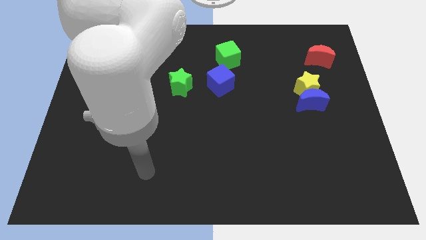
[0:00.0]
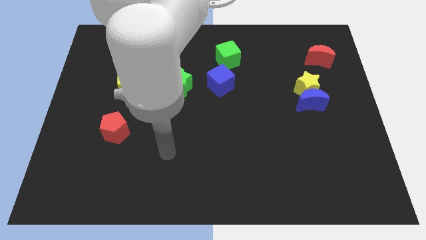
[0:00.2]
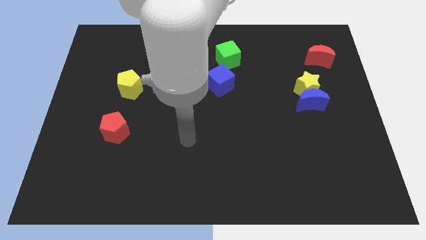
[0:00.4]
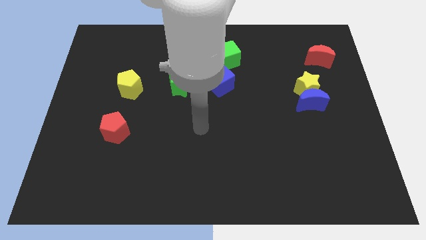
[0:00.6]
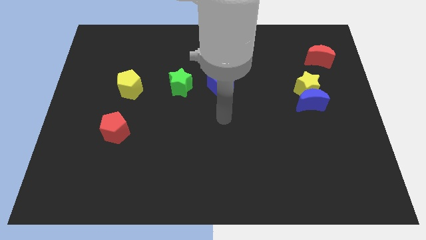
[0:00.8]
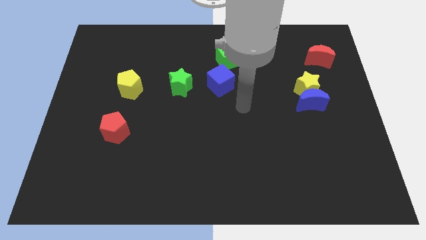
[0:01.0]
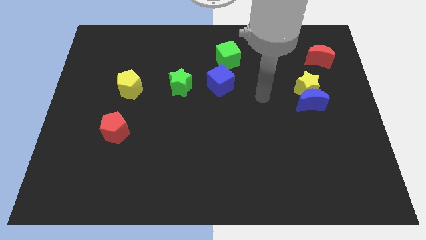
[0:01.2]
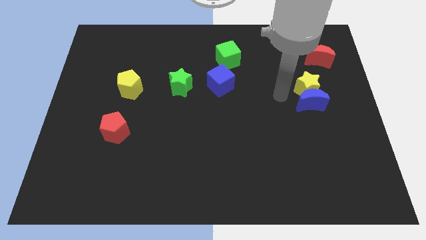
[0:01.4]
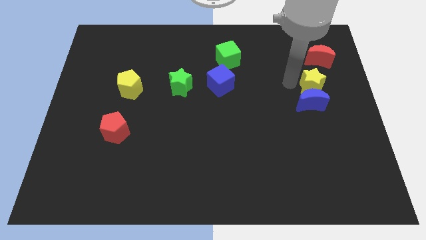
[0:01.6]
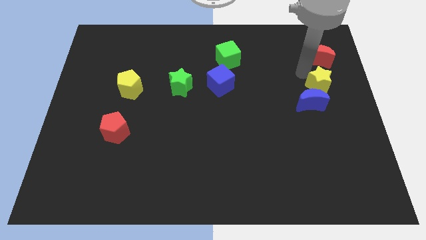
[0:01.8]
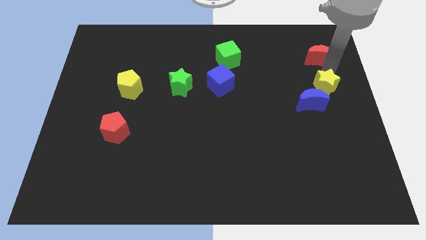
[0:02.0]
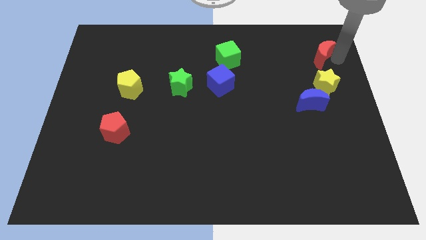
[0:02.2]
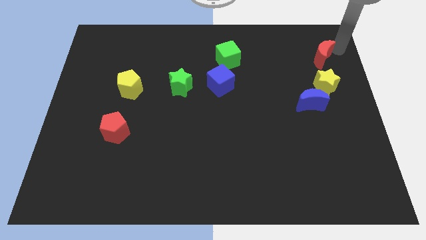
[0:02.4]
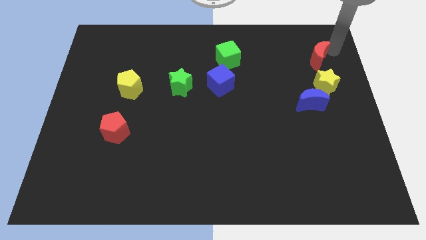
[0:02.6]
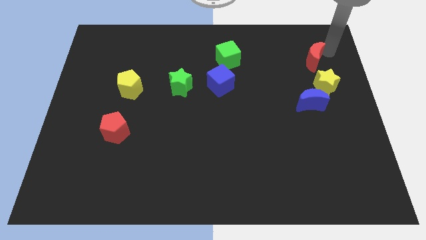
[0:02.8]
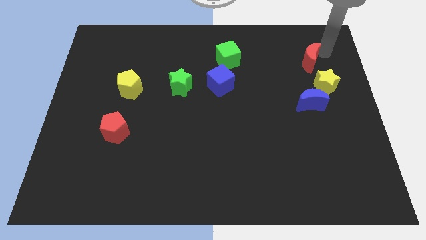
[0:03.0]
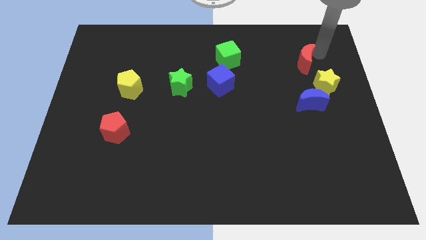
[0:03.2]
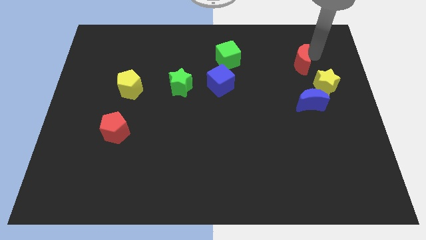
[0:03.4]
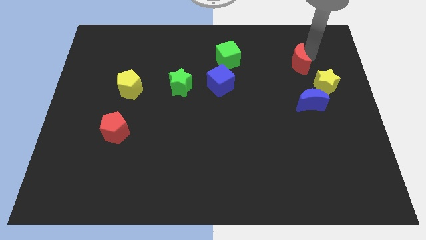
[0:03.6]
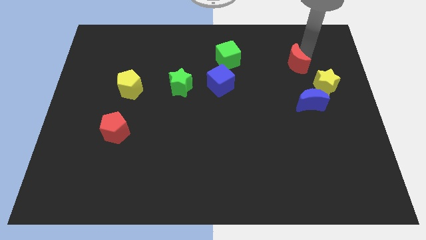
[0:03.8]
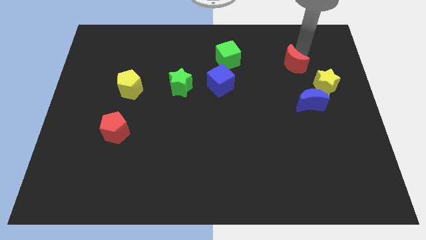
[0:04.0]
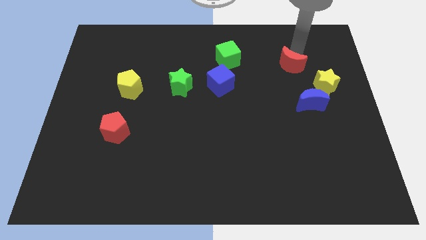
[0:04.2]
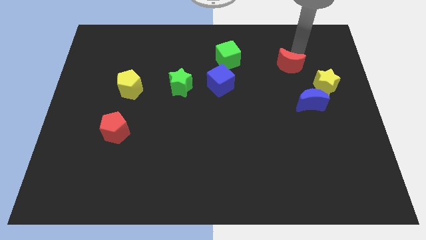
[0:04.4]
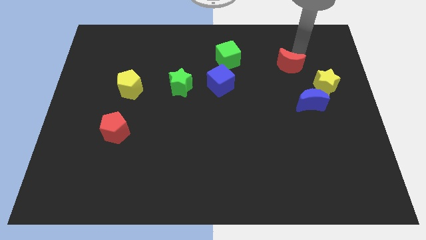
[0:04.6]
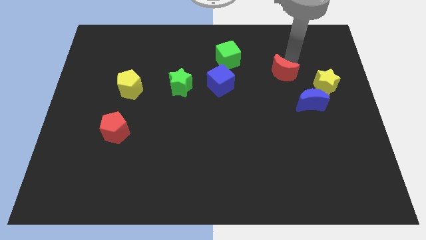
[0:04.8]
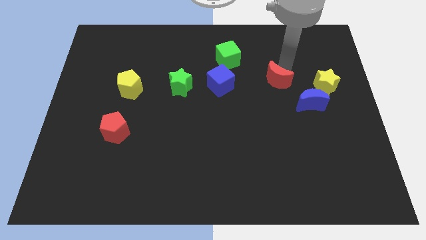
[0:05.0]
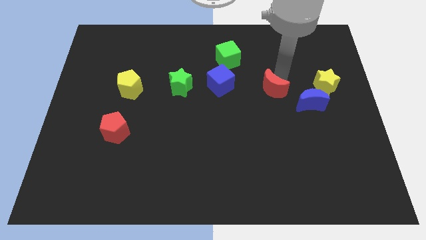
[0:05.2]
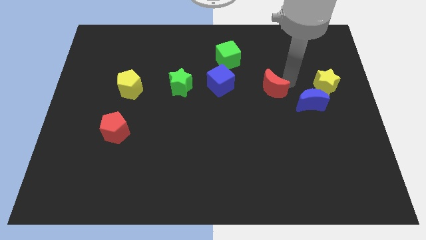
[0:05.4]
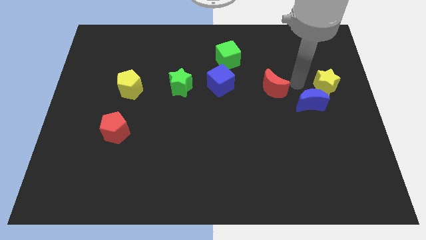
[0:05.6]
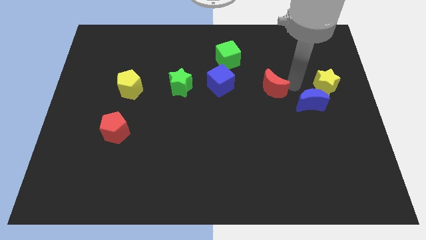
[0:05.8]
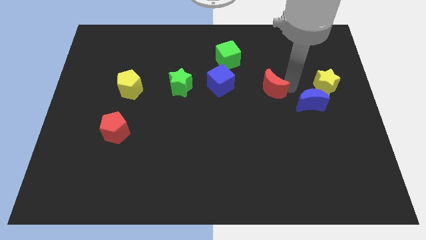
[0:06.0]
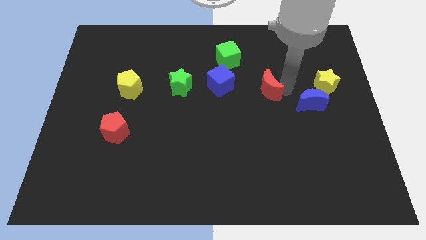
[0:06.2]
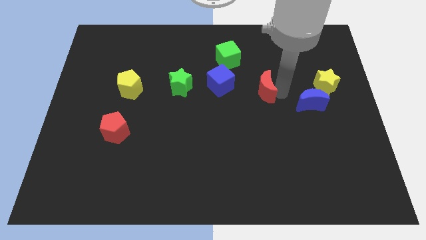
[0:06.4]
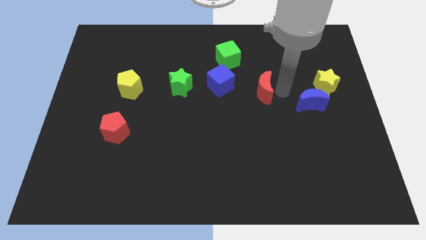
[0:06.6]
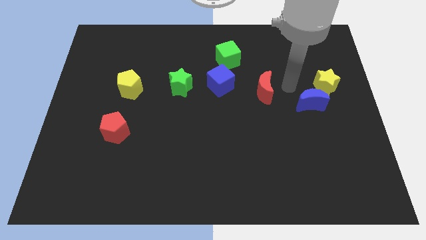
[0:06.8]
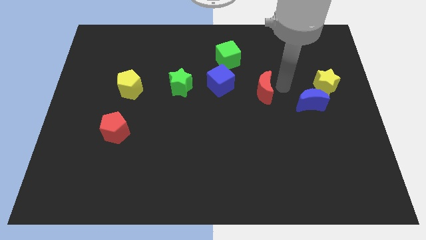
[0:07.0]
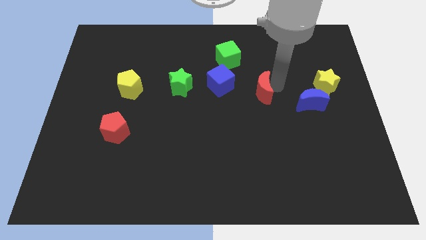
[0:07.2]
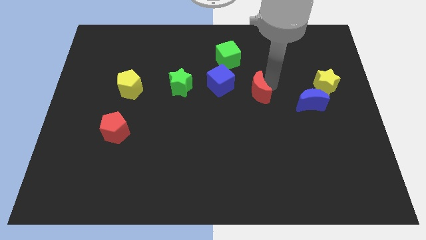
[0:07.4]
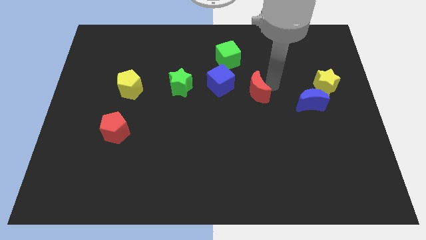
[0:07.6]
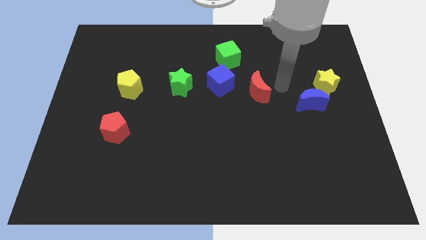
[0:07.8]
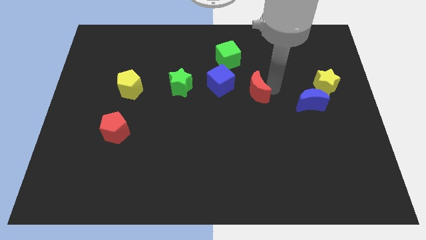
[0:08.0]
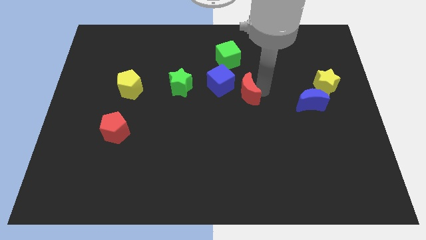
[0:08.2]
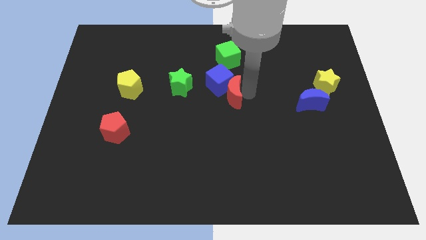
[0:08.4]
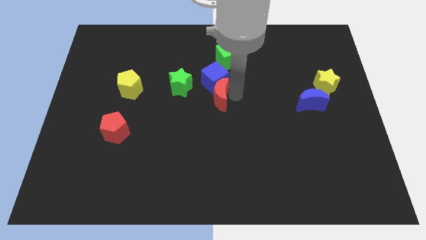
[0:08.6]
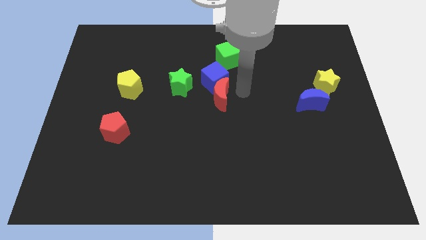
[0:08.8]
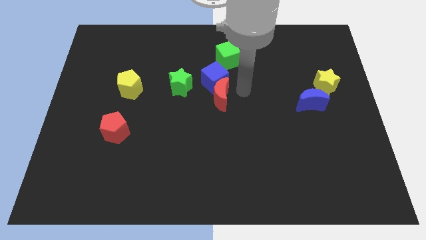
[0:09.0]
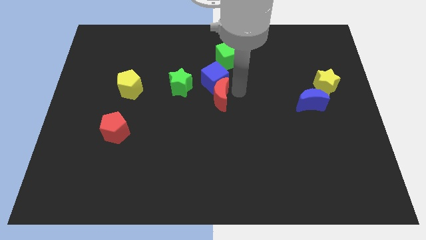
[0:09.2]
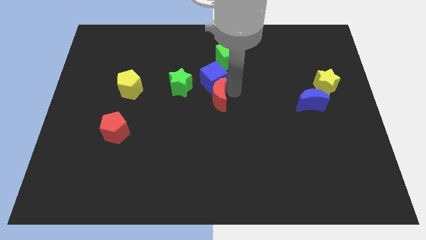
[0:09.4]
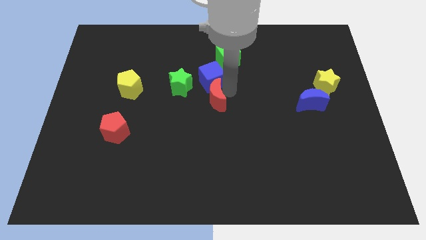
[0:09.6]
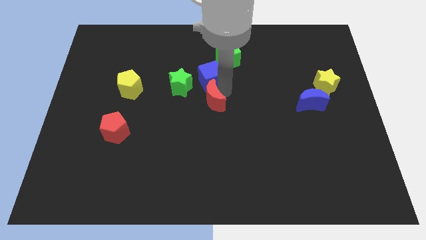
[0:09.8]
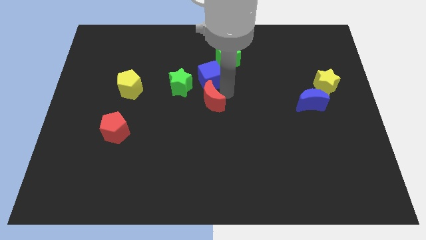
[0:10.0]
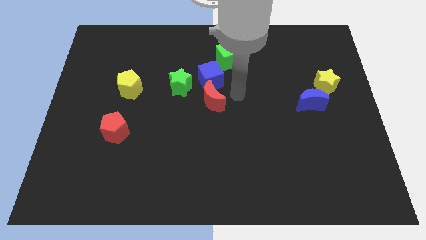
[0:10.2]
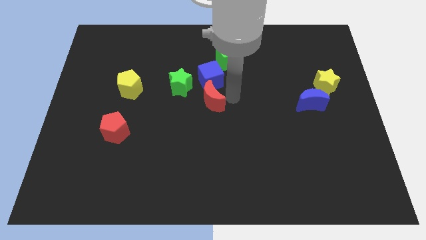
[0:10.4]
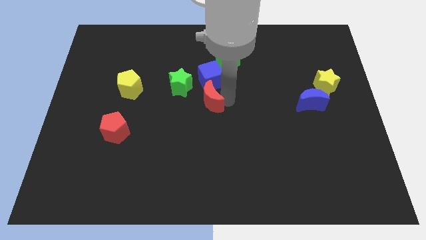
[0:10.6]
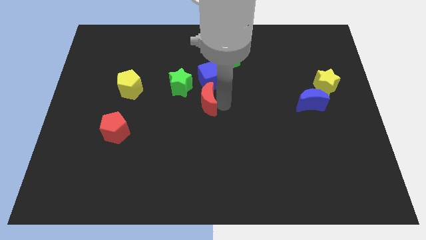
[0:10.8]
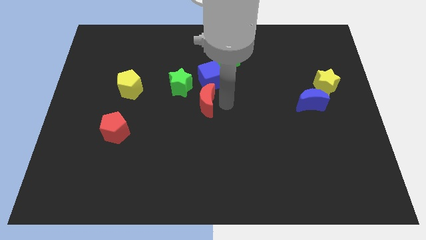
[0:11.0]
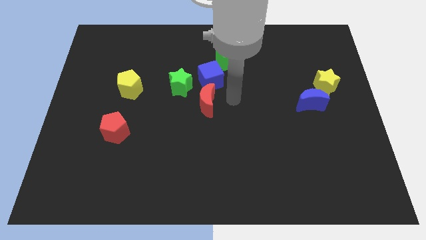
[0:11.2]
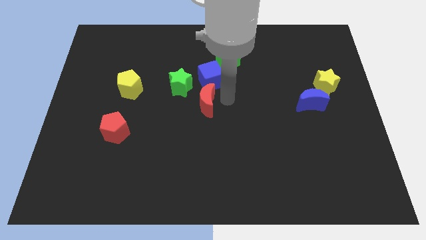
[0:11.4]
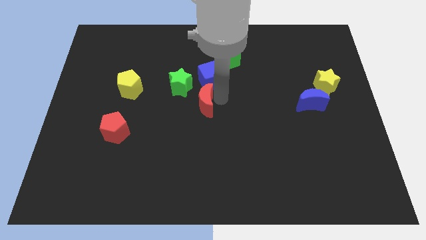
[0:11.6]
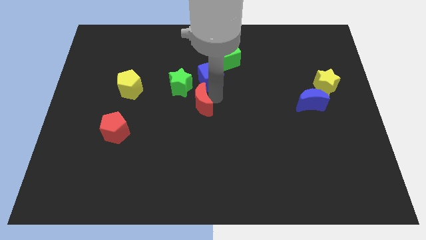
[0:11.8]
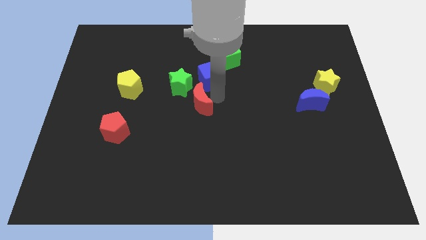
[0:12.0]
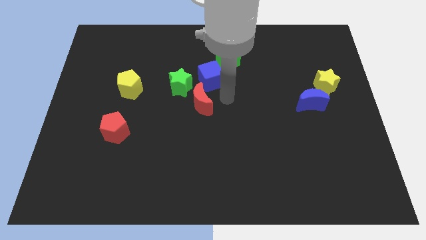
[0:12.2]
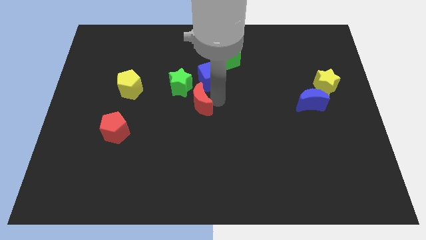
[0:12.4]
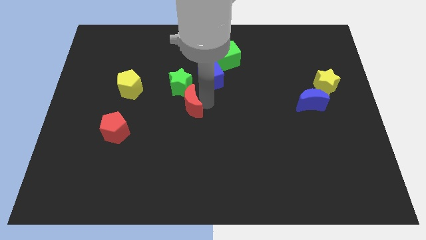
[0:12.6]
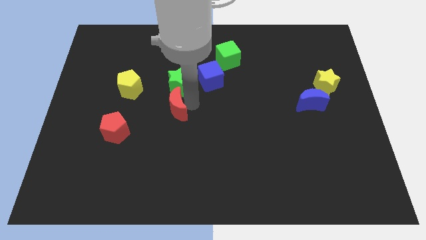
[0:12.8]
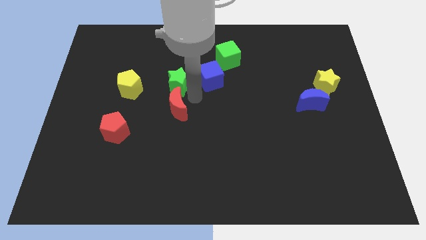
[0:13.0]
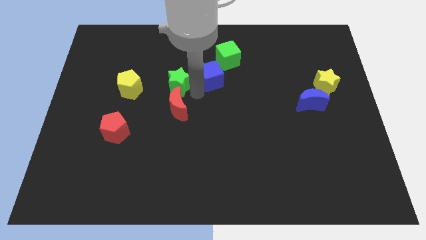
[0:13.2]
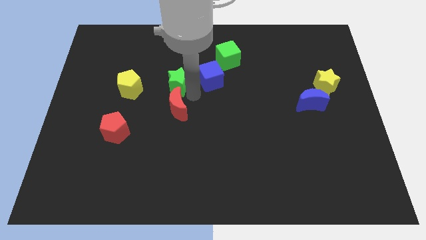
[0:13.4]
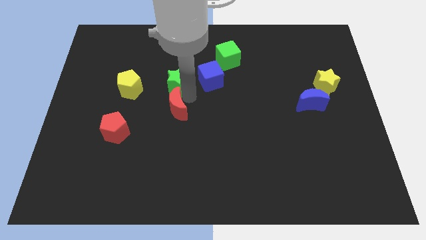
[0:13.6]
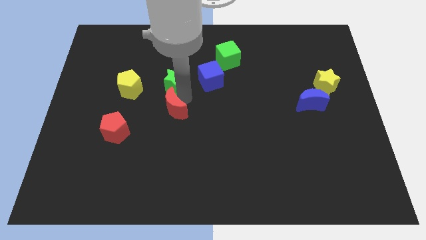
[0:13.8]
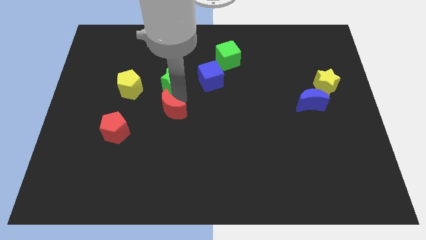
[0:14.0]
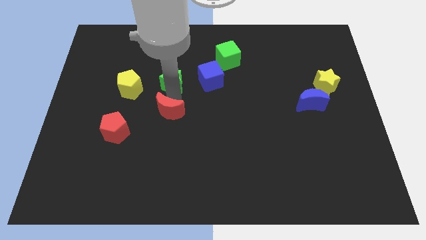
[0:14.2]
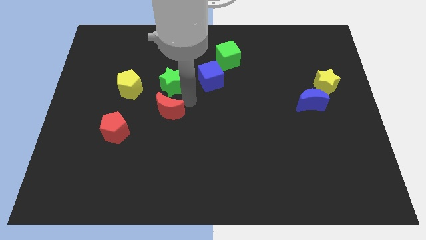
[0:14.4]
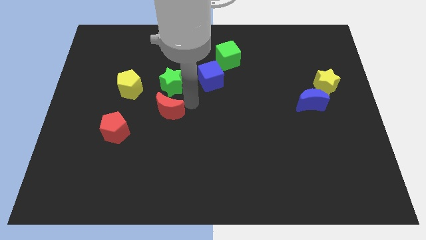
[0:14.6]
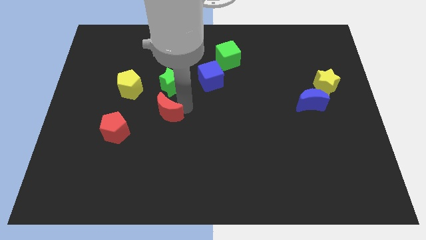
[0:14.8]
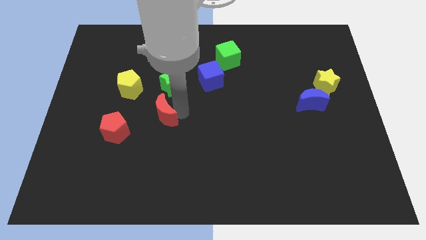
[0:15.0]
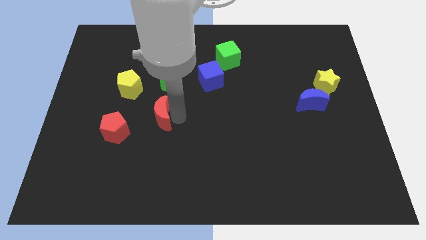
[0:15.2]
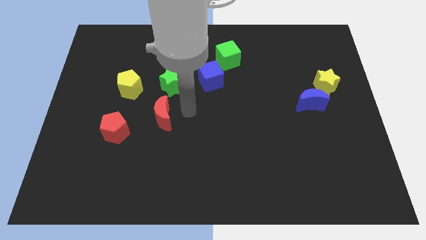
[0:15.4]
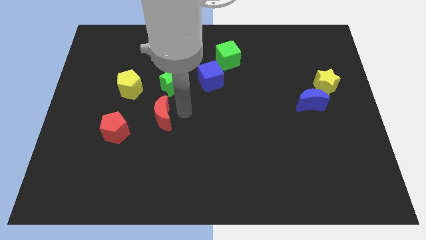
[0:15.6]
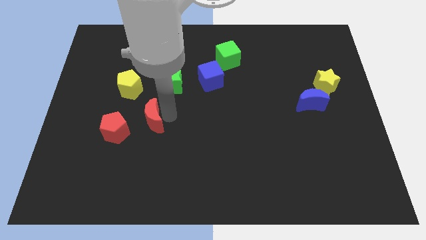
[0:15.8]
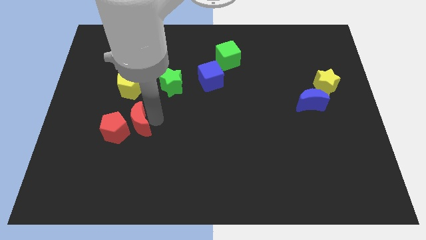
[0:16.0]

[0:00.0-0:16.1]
slide the red moon towards the red pentagon
